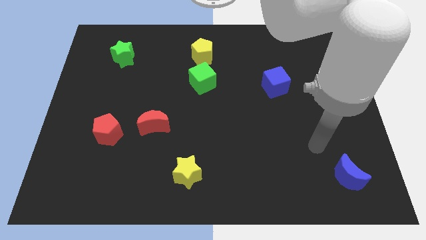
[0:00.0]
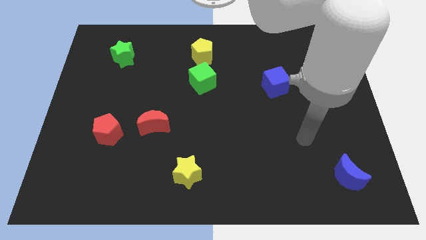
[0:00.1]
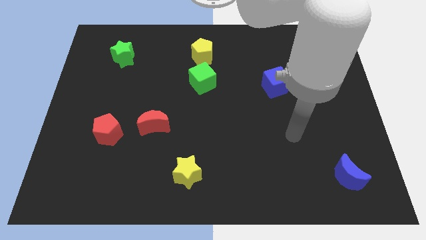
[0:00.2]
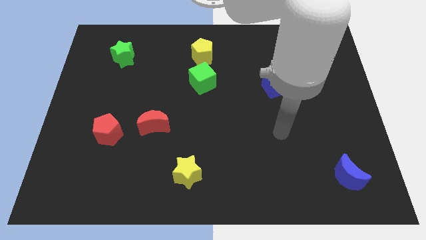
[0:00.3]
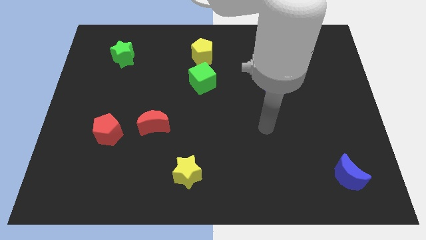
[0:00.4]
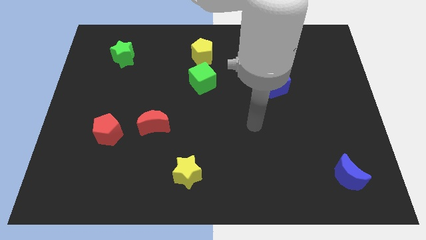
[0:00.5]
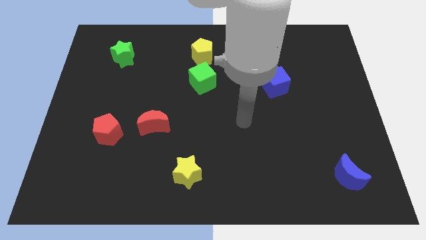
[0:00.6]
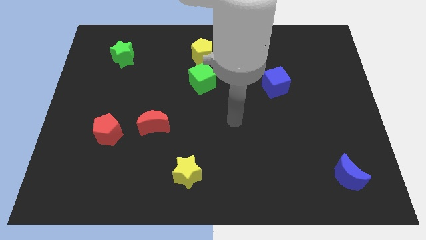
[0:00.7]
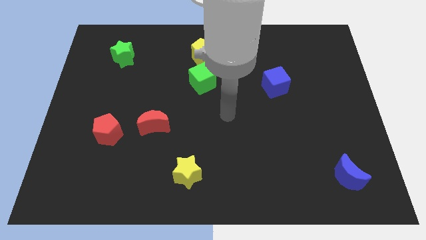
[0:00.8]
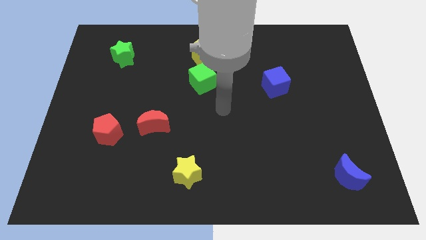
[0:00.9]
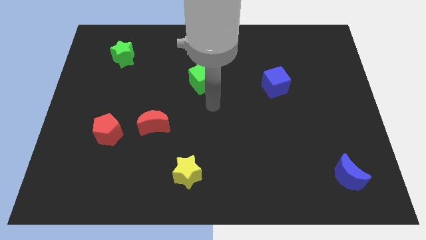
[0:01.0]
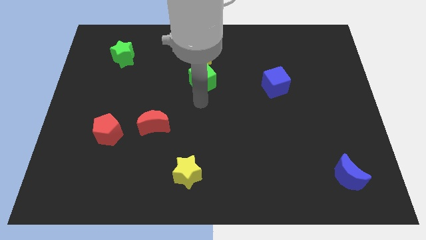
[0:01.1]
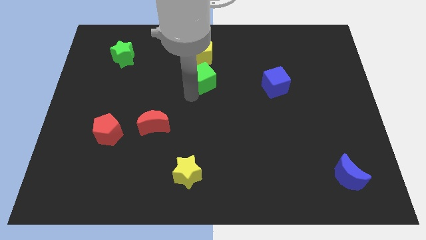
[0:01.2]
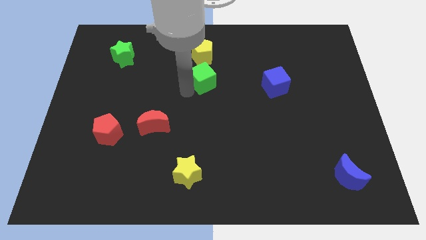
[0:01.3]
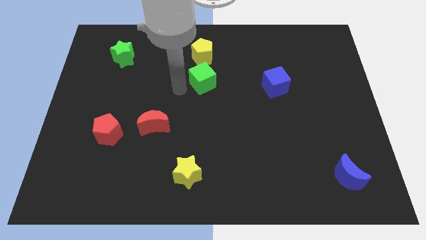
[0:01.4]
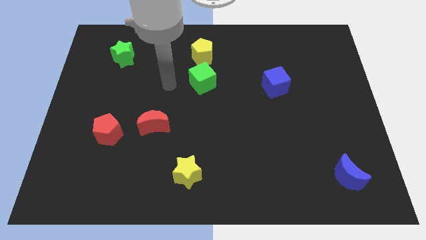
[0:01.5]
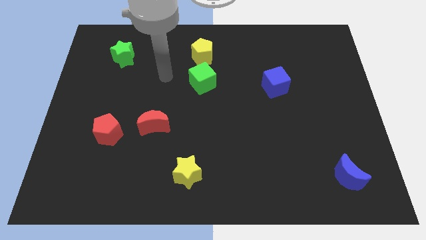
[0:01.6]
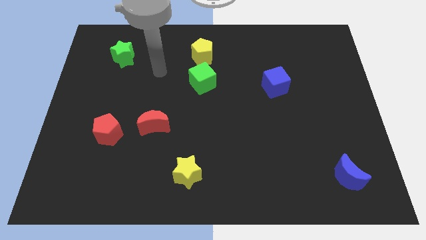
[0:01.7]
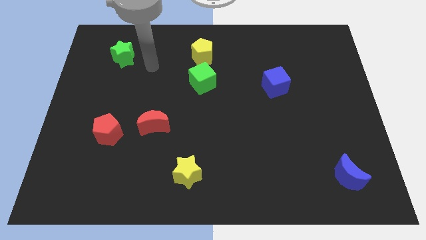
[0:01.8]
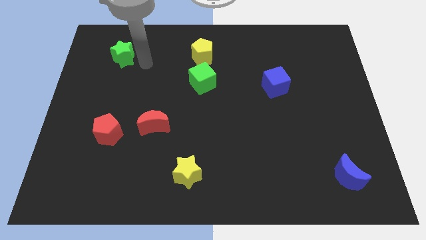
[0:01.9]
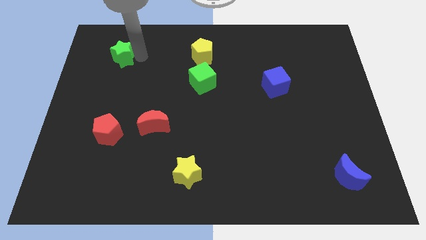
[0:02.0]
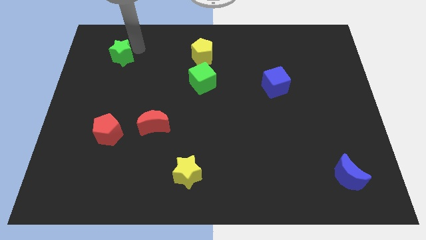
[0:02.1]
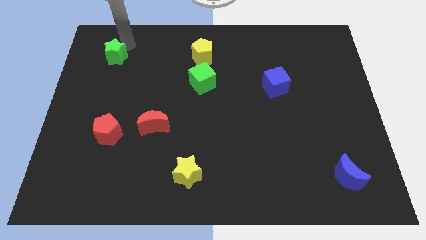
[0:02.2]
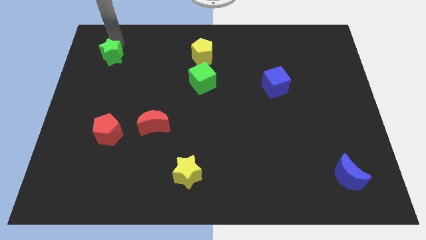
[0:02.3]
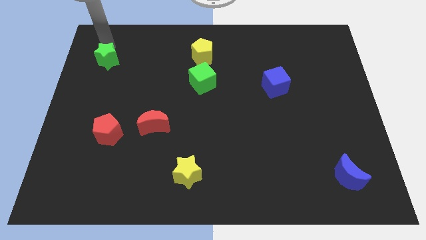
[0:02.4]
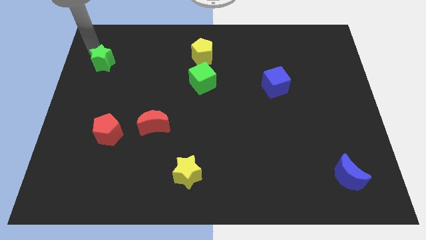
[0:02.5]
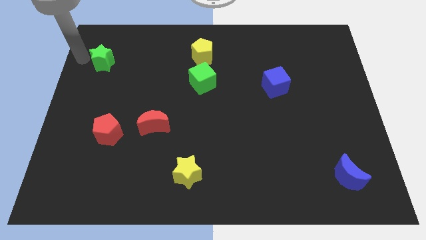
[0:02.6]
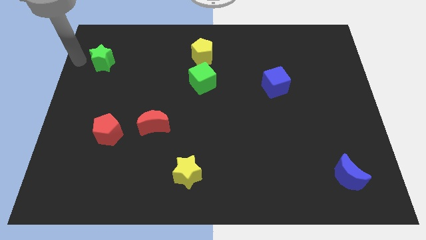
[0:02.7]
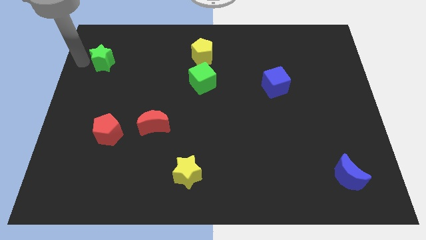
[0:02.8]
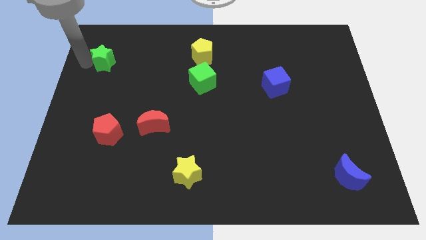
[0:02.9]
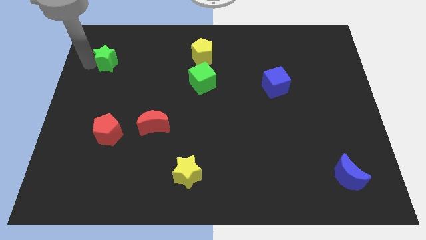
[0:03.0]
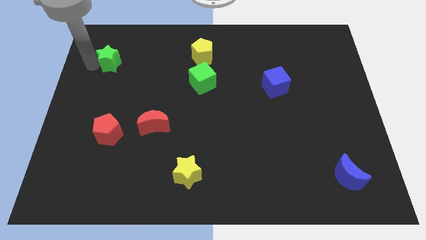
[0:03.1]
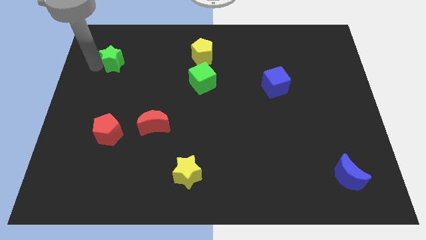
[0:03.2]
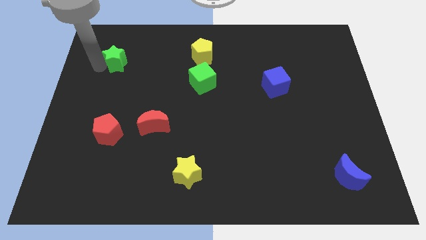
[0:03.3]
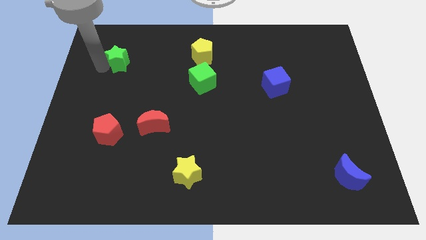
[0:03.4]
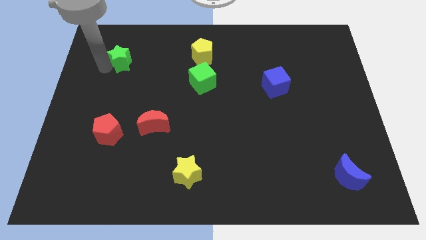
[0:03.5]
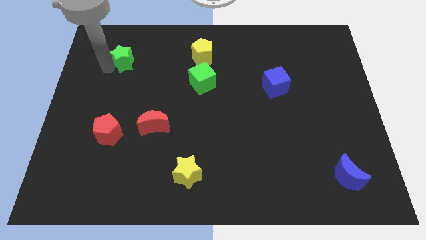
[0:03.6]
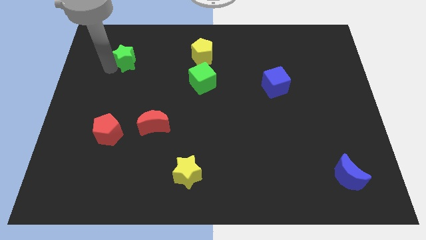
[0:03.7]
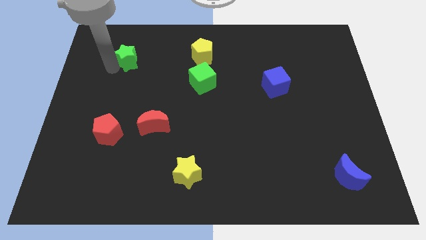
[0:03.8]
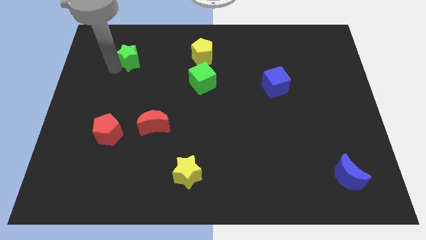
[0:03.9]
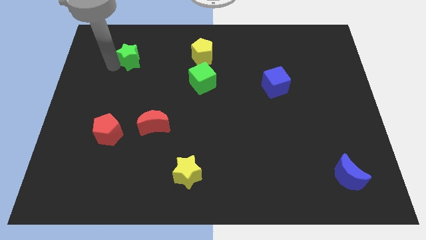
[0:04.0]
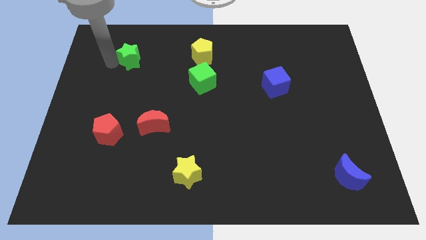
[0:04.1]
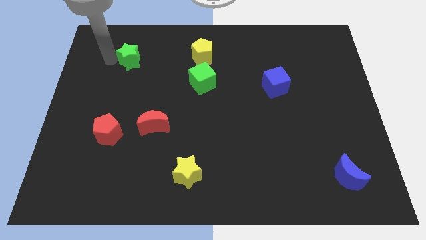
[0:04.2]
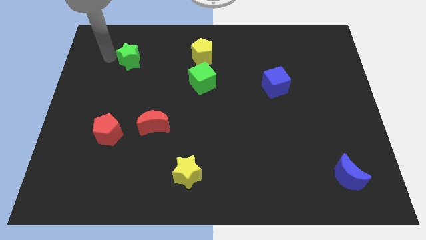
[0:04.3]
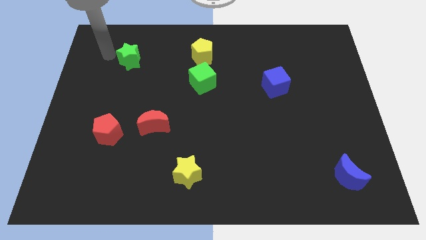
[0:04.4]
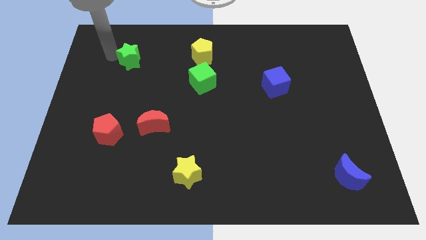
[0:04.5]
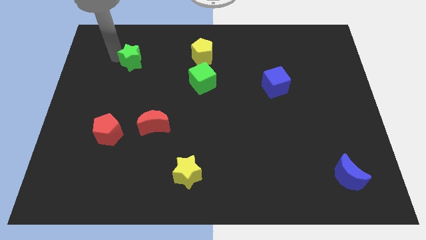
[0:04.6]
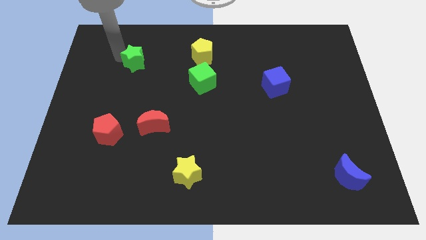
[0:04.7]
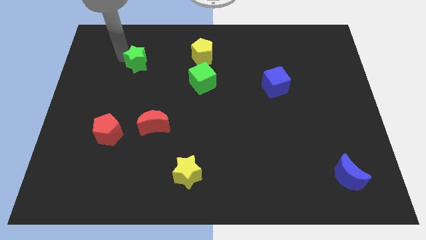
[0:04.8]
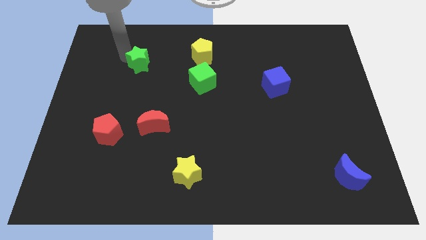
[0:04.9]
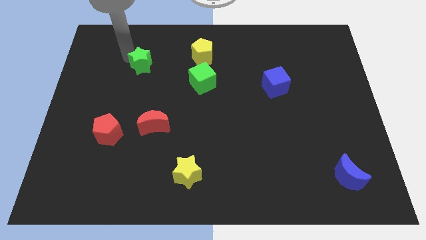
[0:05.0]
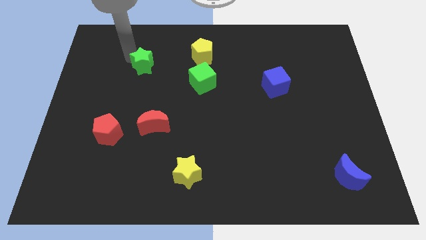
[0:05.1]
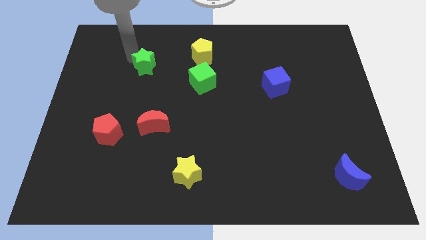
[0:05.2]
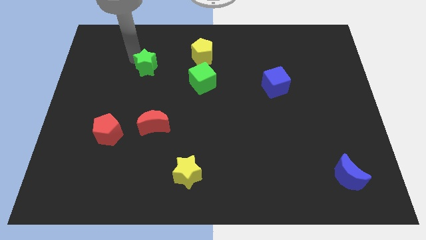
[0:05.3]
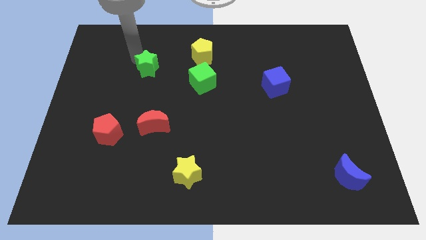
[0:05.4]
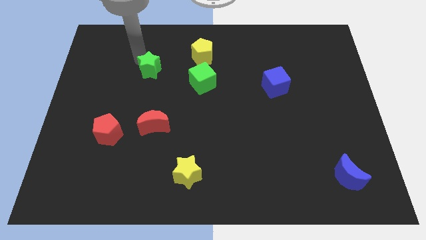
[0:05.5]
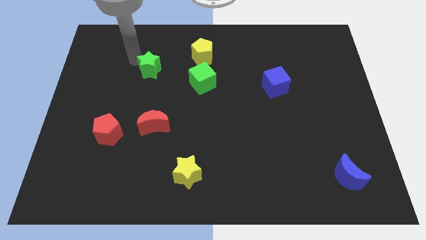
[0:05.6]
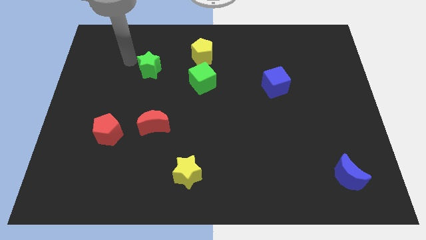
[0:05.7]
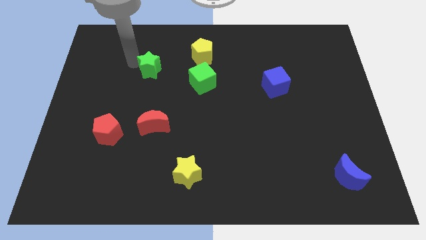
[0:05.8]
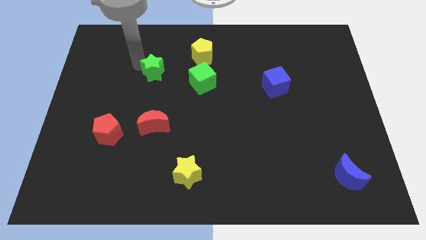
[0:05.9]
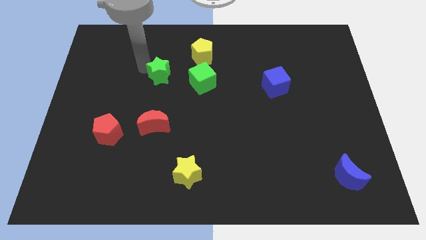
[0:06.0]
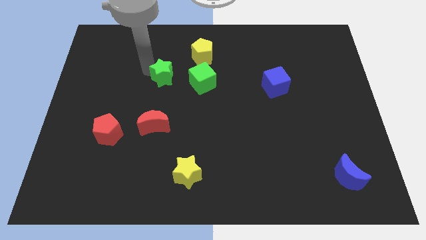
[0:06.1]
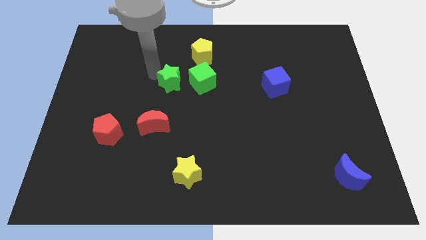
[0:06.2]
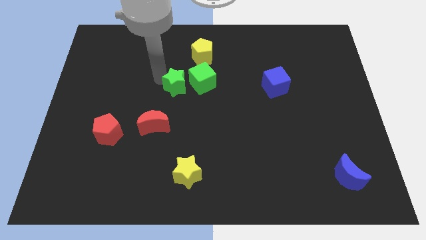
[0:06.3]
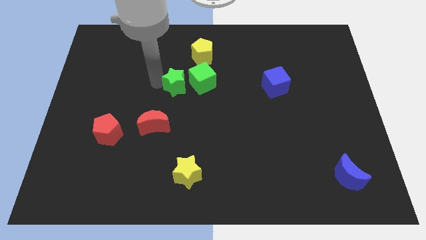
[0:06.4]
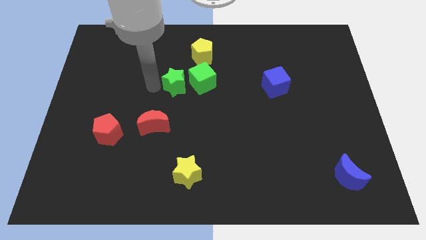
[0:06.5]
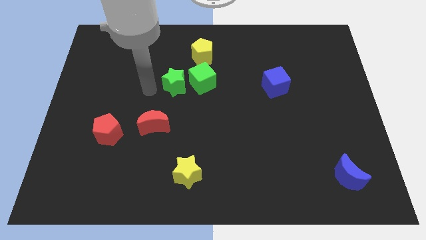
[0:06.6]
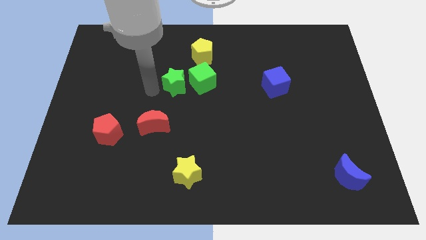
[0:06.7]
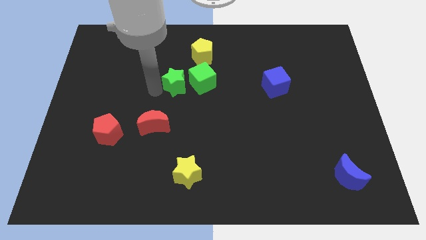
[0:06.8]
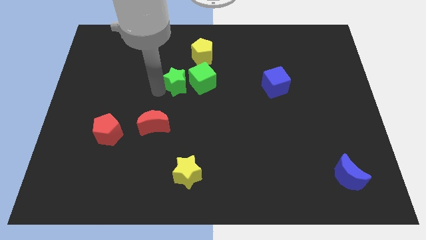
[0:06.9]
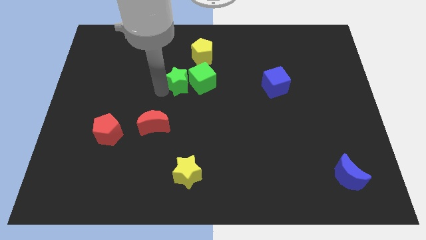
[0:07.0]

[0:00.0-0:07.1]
slide the green star next to the green cube

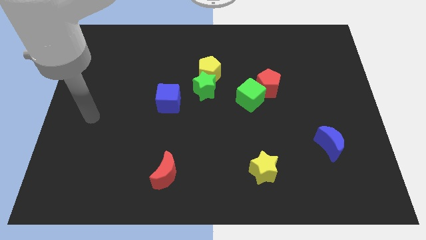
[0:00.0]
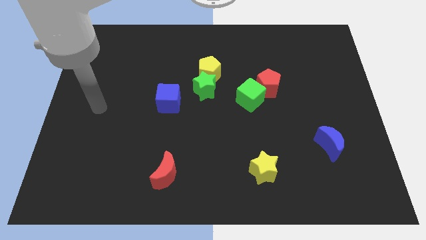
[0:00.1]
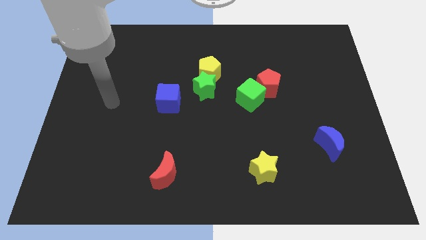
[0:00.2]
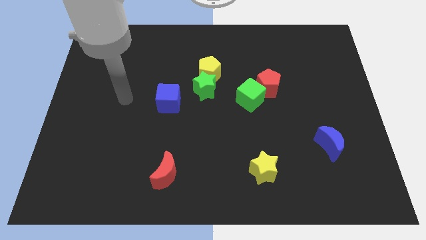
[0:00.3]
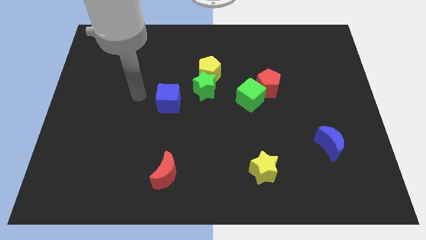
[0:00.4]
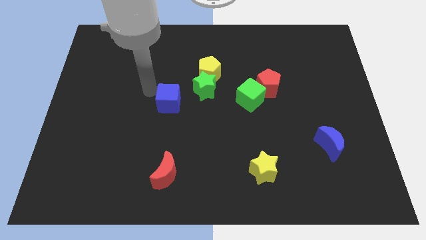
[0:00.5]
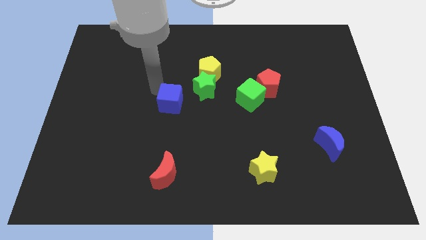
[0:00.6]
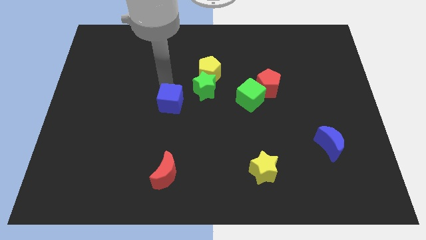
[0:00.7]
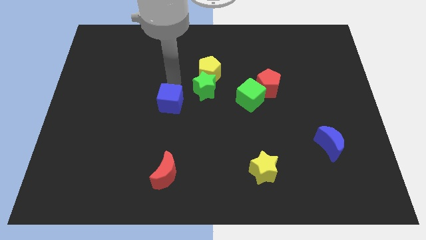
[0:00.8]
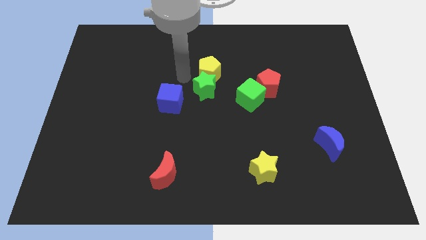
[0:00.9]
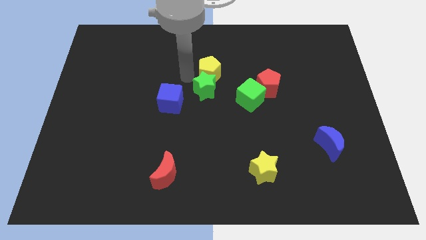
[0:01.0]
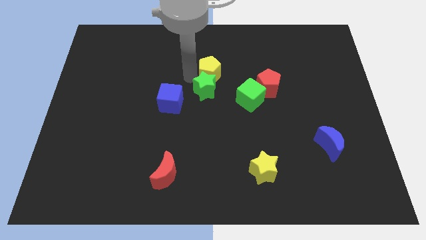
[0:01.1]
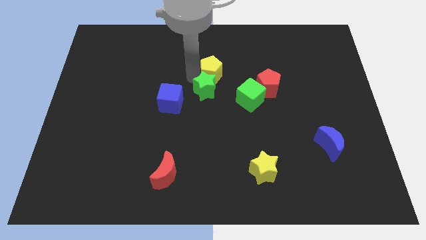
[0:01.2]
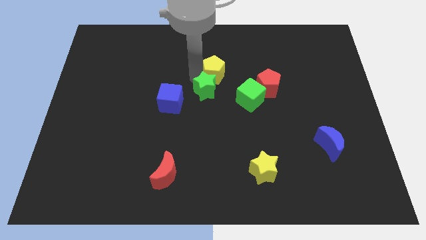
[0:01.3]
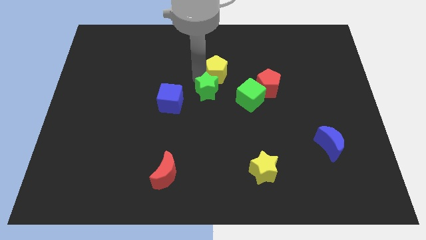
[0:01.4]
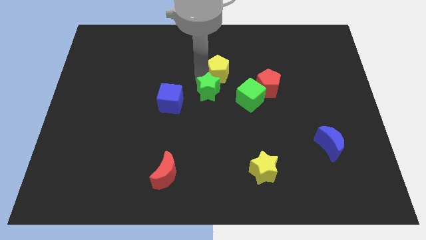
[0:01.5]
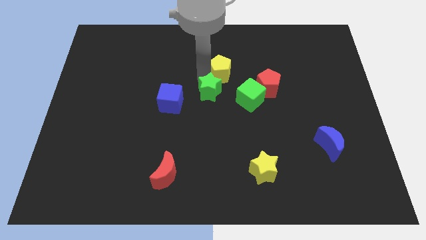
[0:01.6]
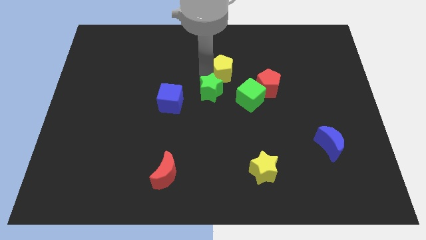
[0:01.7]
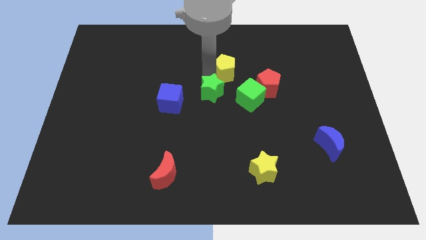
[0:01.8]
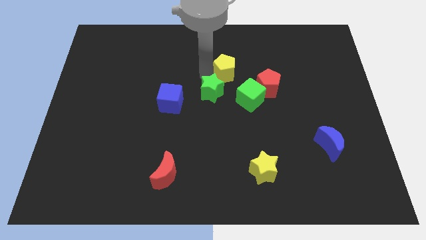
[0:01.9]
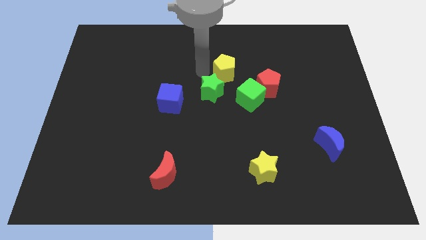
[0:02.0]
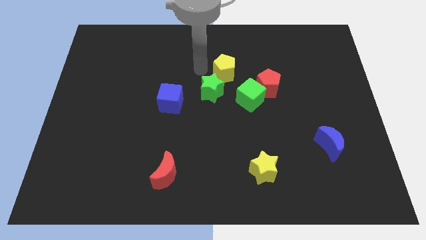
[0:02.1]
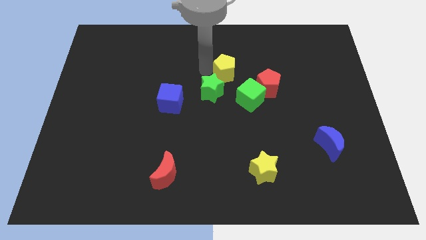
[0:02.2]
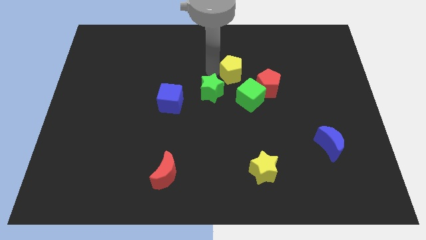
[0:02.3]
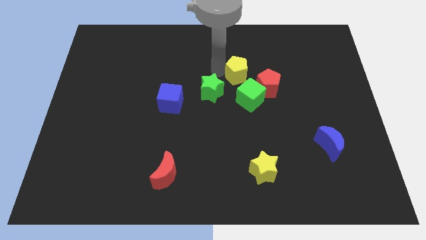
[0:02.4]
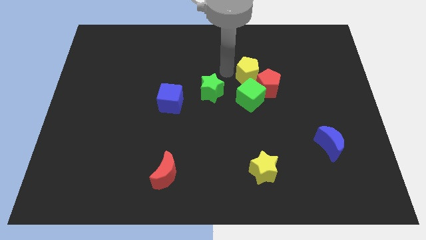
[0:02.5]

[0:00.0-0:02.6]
push the yellow pentagon towards the red pentagon
